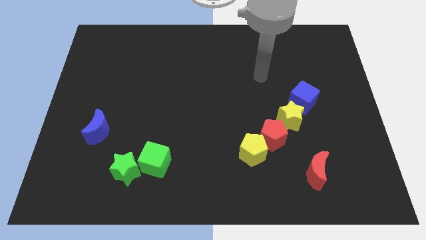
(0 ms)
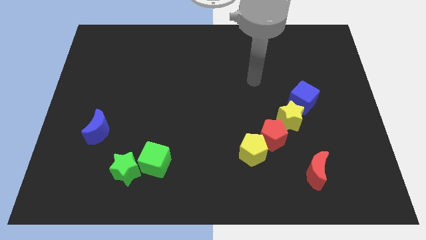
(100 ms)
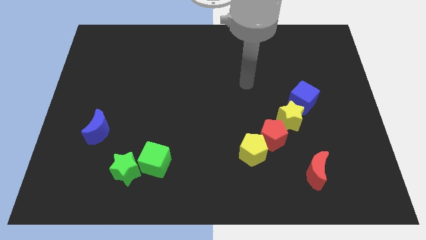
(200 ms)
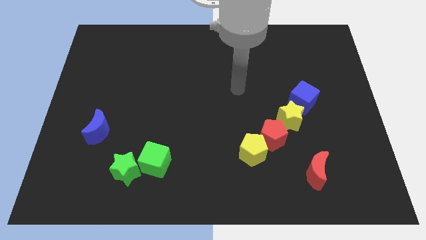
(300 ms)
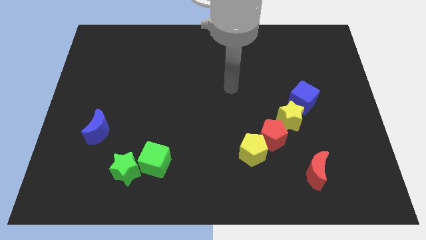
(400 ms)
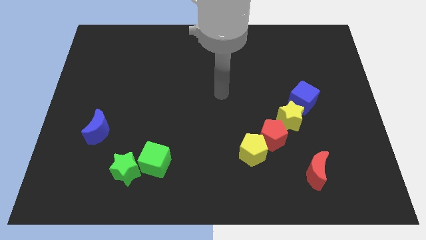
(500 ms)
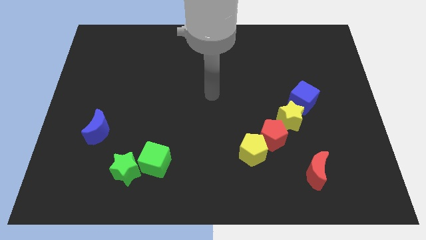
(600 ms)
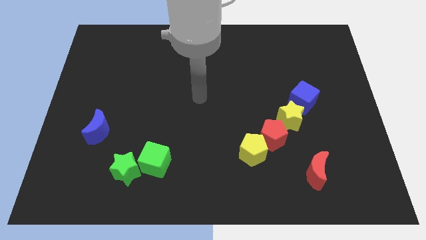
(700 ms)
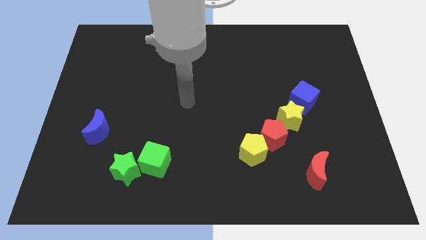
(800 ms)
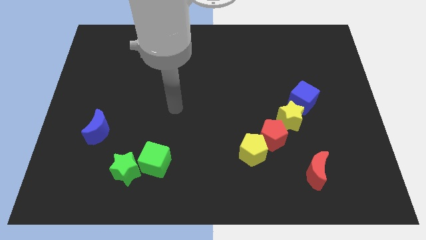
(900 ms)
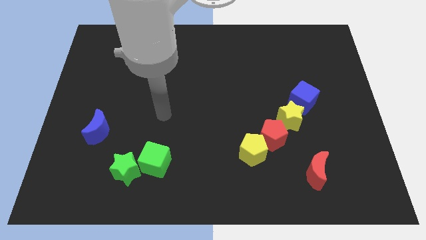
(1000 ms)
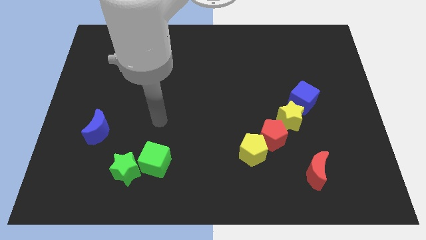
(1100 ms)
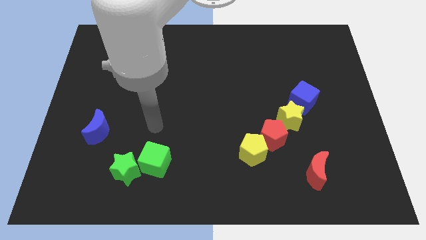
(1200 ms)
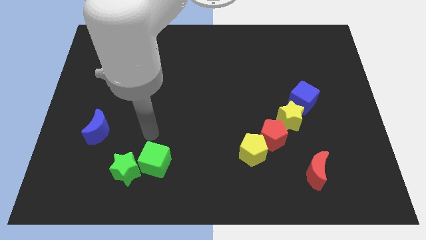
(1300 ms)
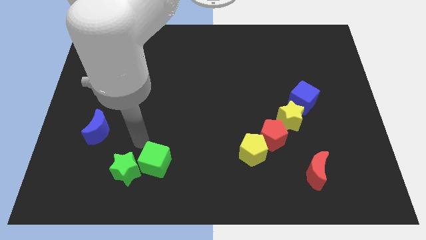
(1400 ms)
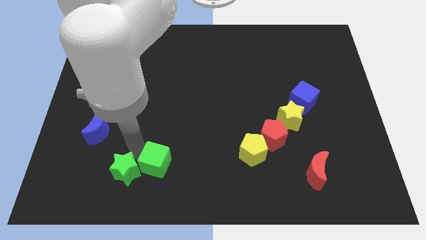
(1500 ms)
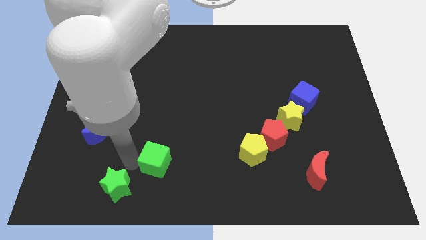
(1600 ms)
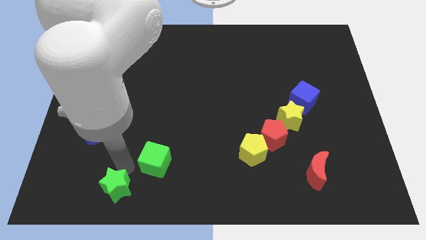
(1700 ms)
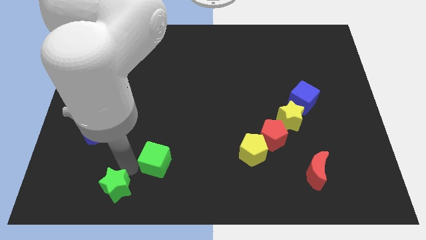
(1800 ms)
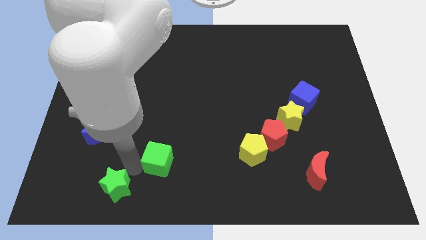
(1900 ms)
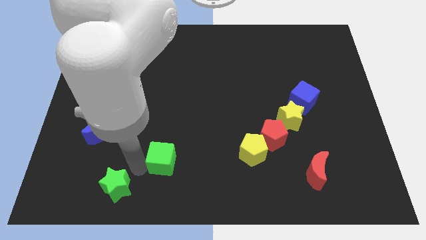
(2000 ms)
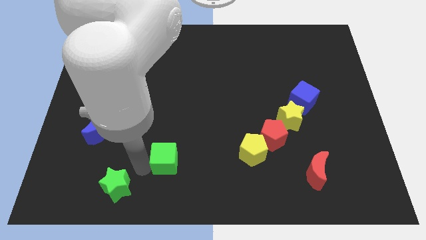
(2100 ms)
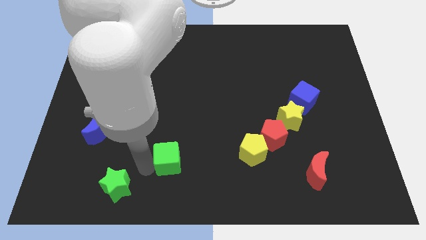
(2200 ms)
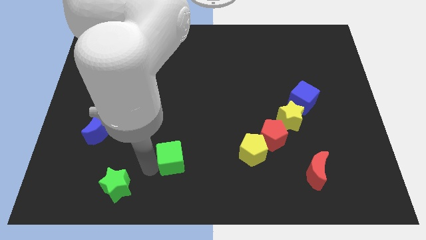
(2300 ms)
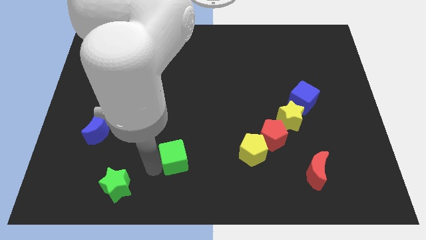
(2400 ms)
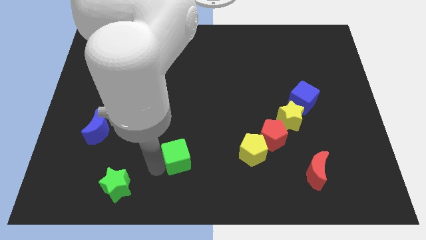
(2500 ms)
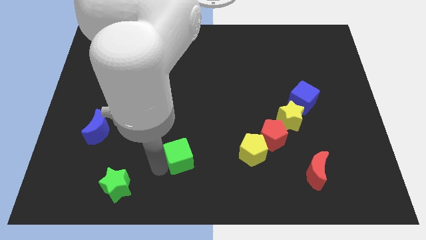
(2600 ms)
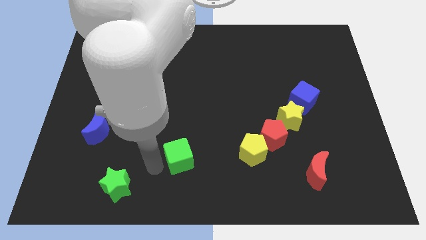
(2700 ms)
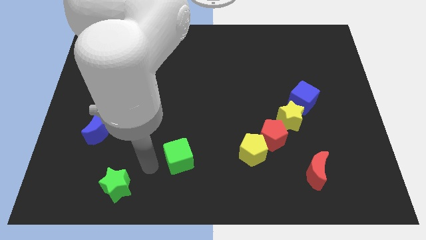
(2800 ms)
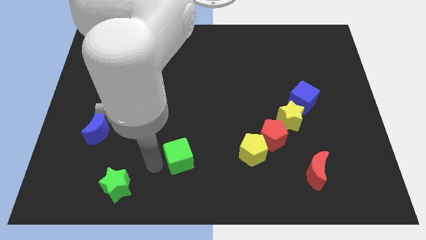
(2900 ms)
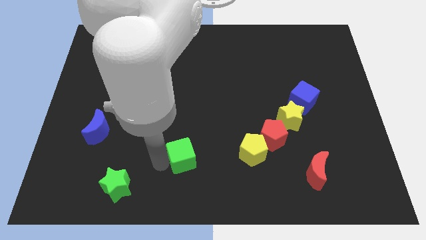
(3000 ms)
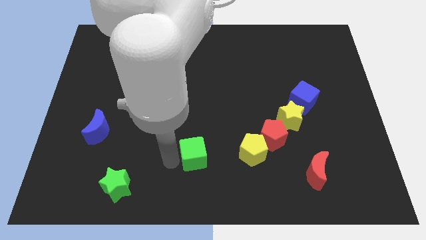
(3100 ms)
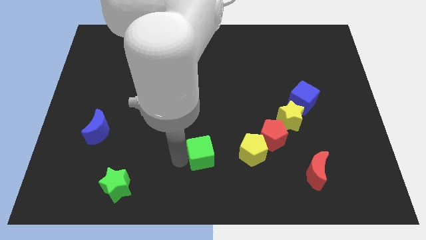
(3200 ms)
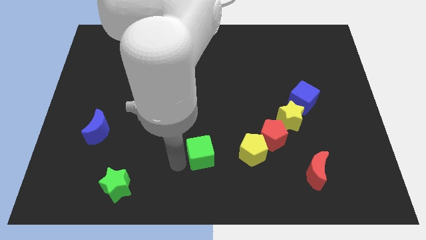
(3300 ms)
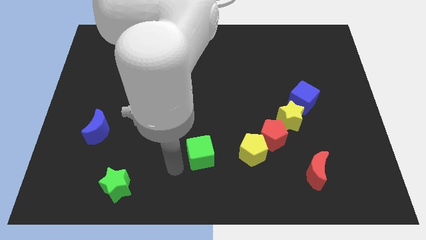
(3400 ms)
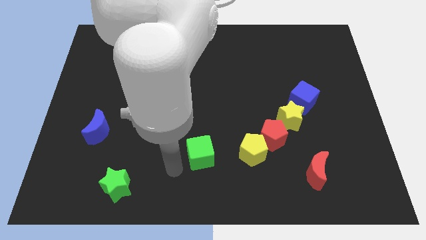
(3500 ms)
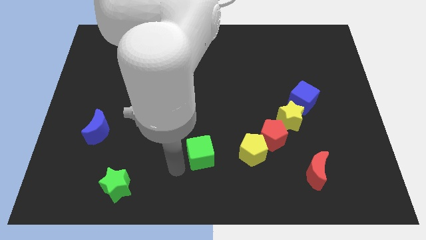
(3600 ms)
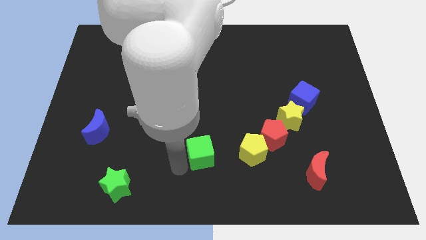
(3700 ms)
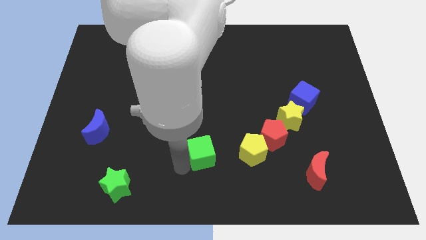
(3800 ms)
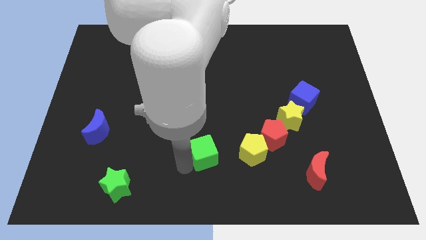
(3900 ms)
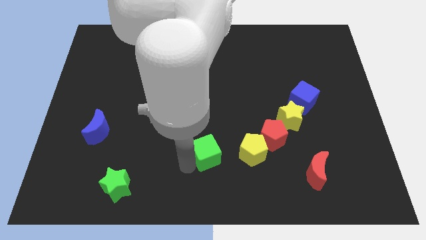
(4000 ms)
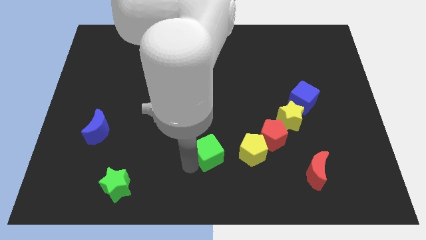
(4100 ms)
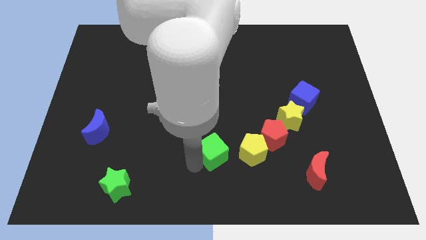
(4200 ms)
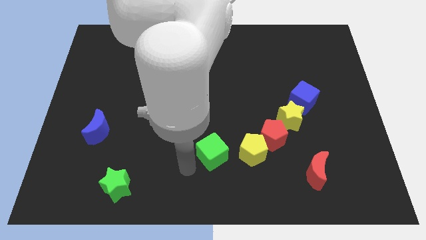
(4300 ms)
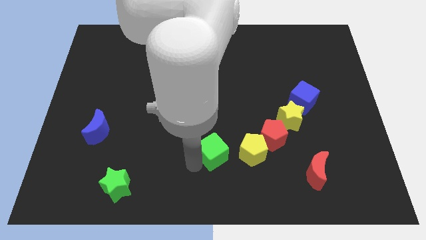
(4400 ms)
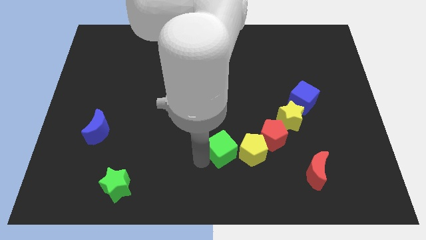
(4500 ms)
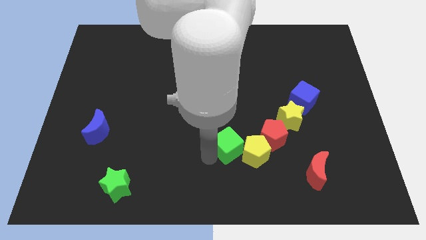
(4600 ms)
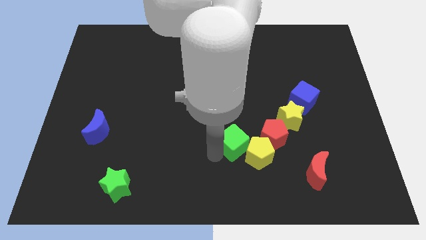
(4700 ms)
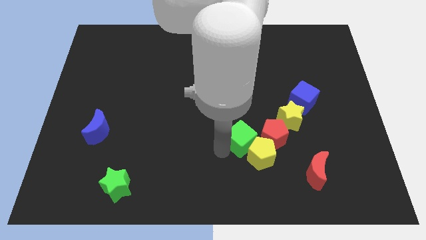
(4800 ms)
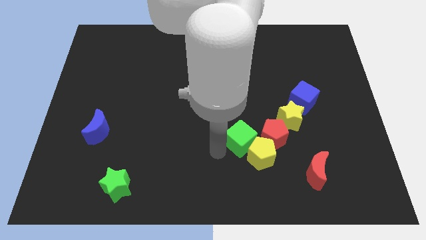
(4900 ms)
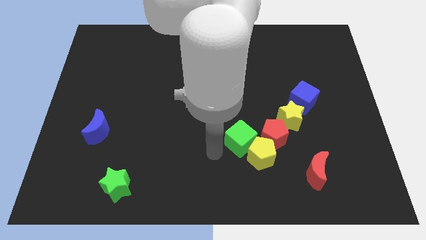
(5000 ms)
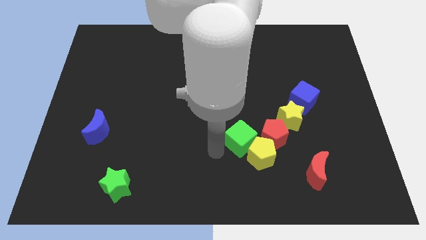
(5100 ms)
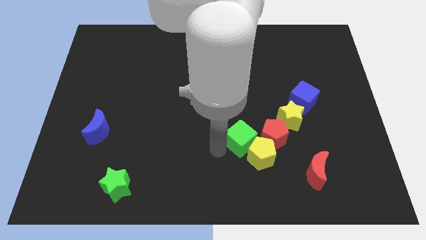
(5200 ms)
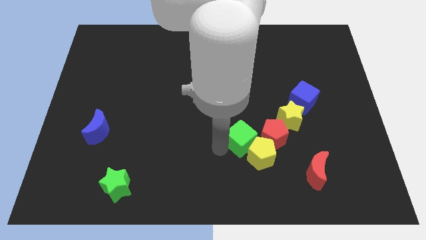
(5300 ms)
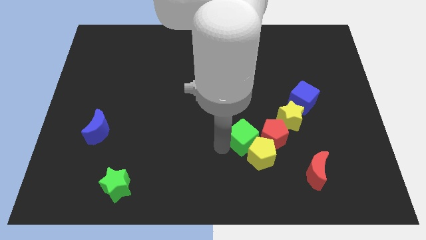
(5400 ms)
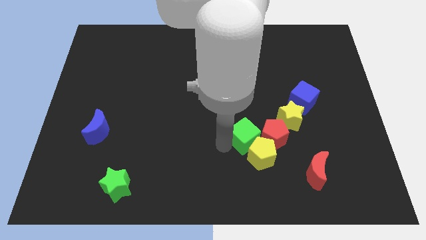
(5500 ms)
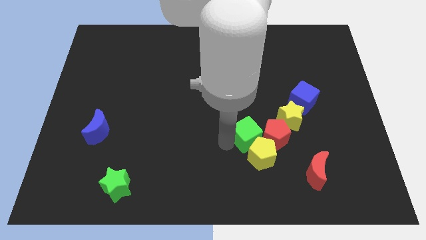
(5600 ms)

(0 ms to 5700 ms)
slide the green cube towards the red pentagon

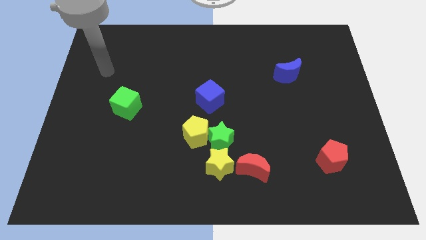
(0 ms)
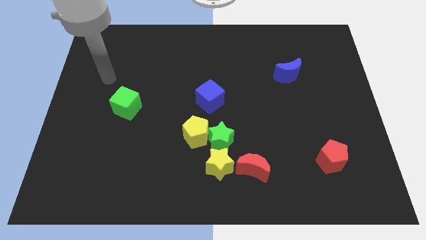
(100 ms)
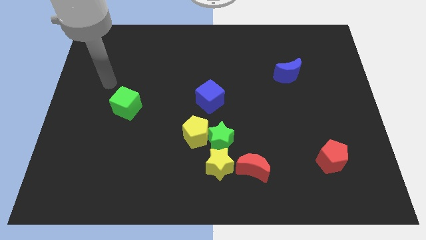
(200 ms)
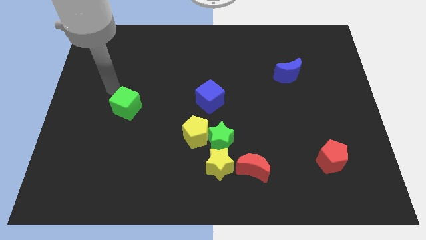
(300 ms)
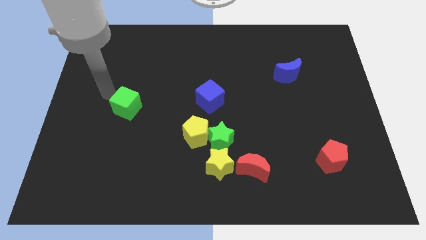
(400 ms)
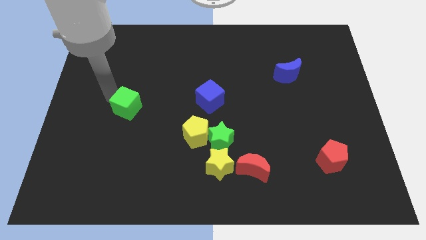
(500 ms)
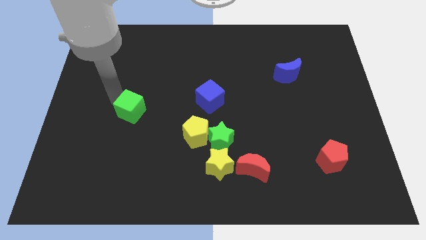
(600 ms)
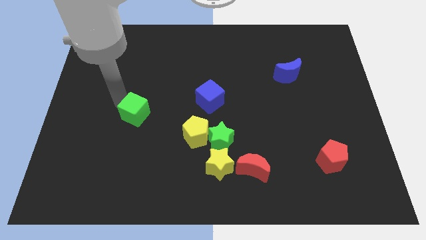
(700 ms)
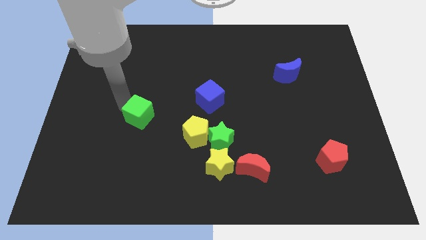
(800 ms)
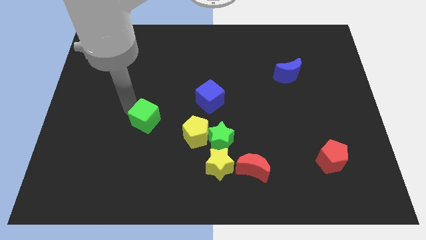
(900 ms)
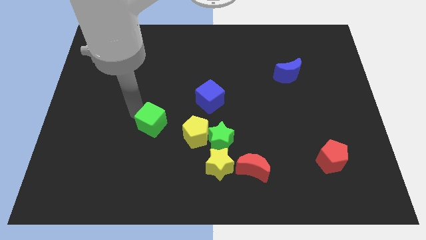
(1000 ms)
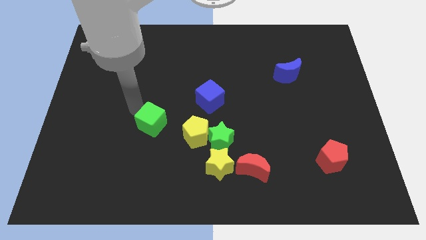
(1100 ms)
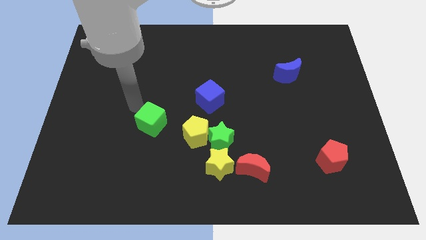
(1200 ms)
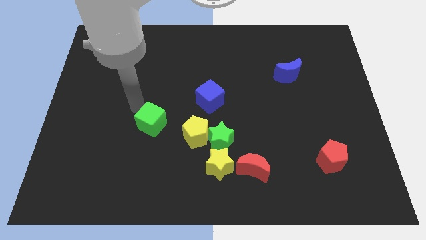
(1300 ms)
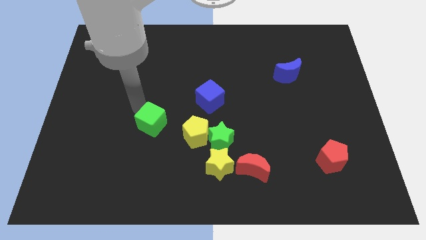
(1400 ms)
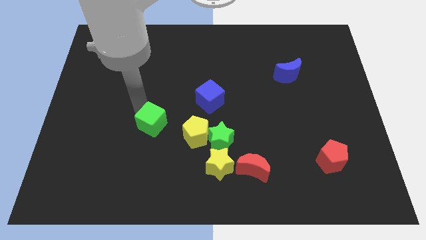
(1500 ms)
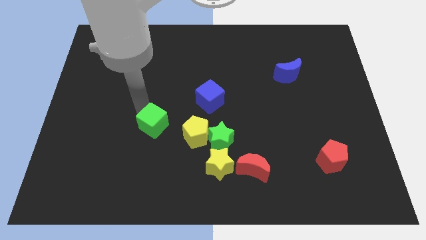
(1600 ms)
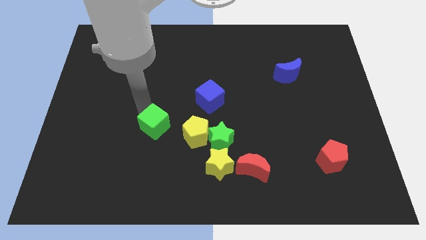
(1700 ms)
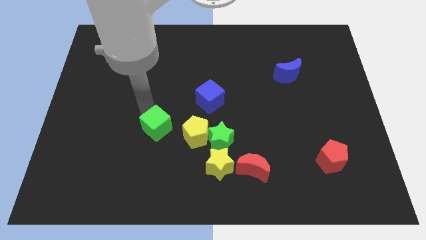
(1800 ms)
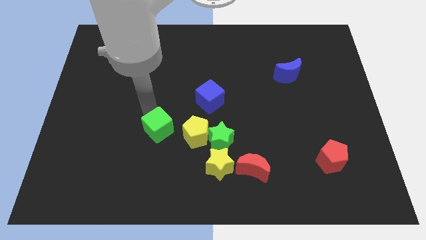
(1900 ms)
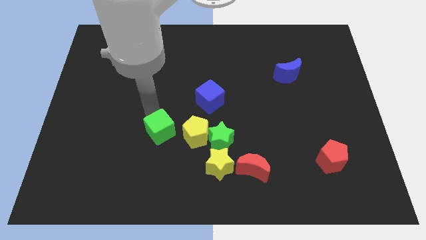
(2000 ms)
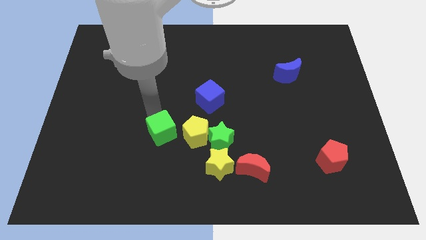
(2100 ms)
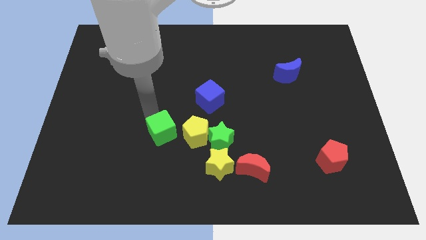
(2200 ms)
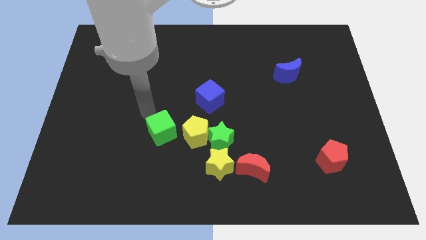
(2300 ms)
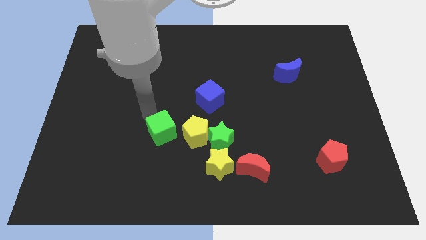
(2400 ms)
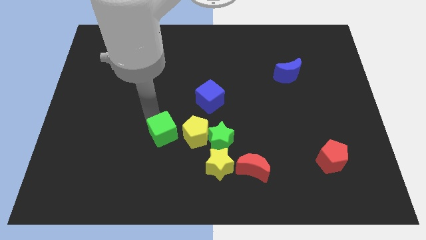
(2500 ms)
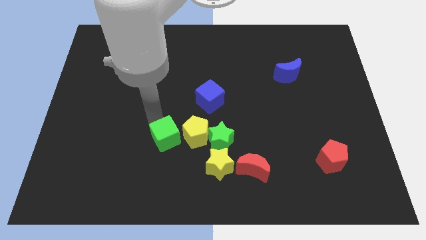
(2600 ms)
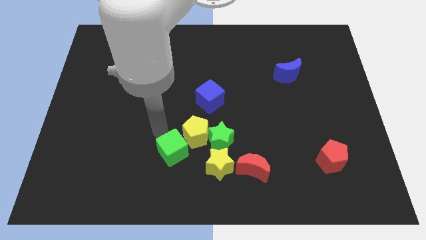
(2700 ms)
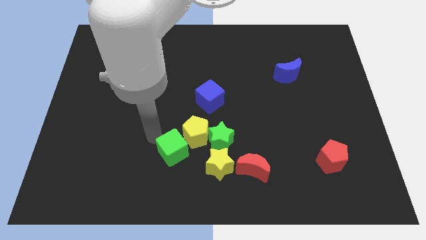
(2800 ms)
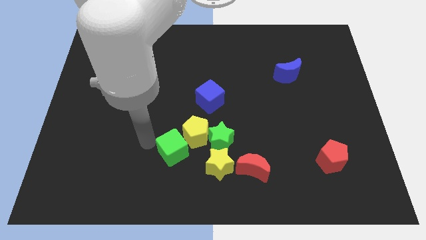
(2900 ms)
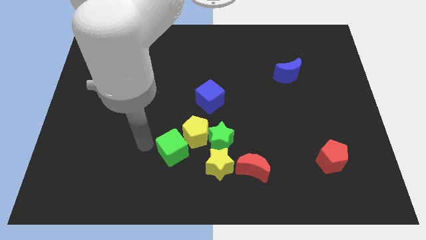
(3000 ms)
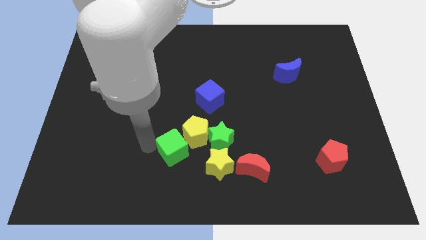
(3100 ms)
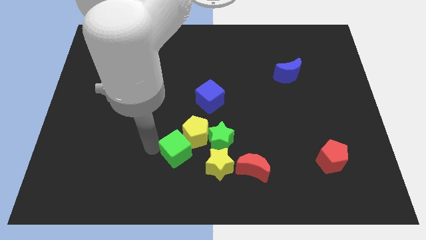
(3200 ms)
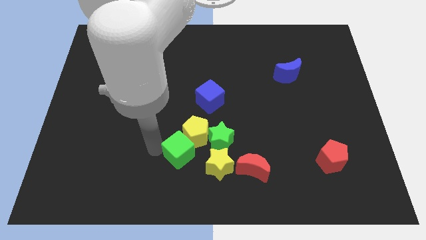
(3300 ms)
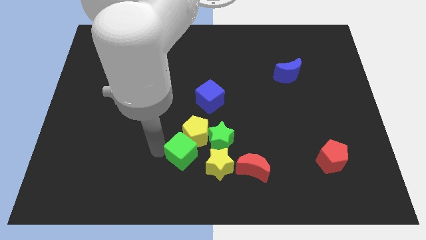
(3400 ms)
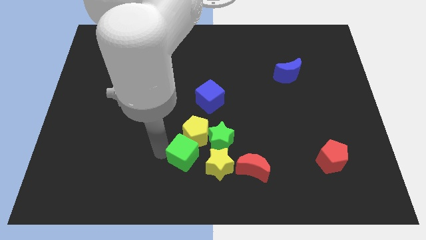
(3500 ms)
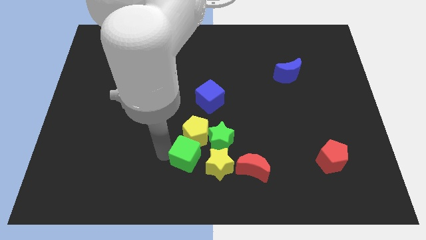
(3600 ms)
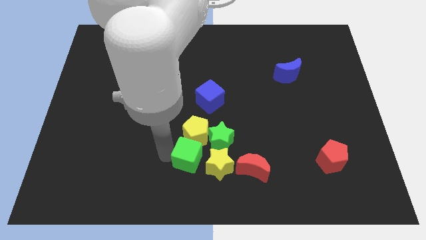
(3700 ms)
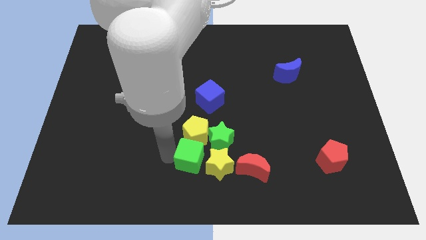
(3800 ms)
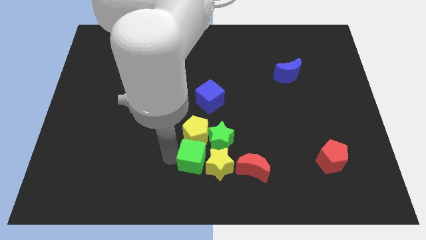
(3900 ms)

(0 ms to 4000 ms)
move the green cube next to the yellow star
